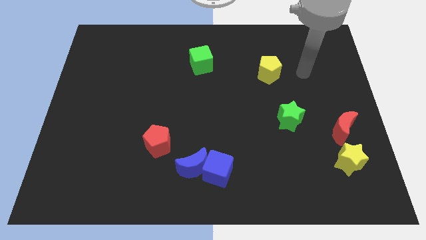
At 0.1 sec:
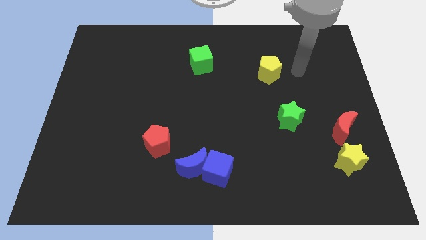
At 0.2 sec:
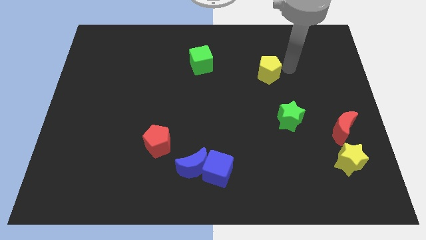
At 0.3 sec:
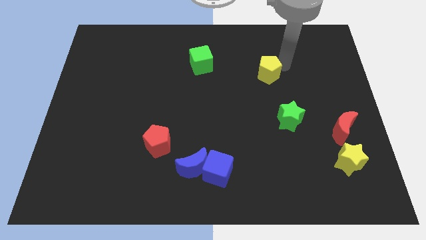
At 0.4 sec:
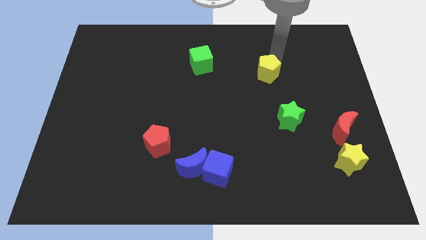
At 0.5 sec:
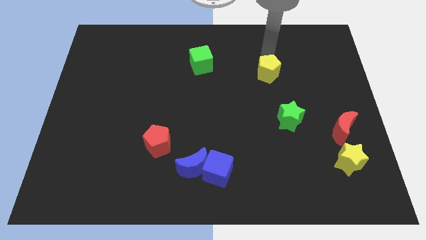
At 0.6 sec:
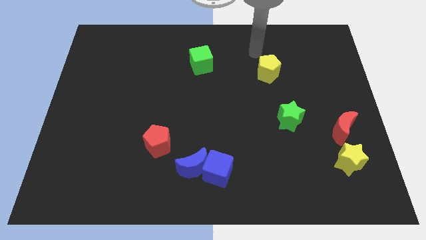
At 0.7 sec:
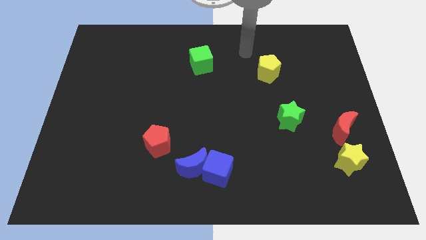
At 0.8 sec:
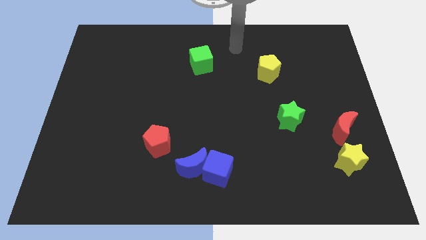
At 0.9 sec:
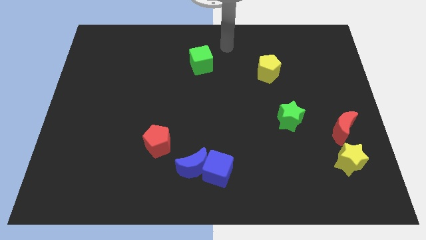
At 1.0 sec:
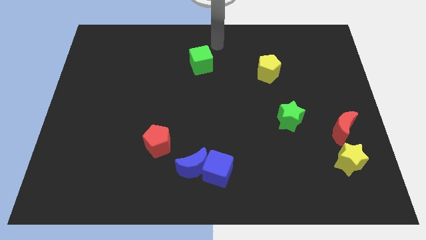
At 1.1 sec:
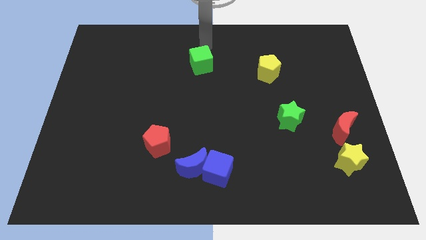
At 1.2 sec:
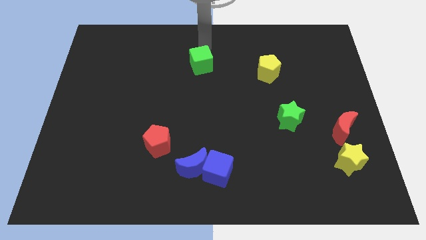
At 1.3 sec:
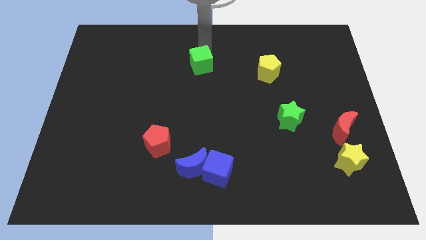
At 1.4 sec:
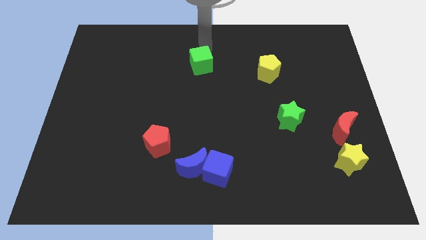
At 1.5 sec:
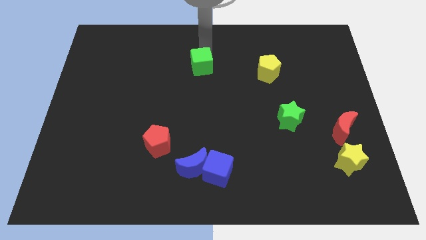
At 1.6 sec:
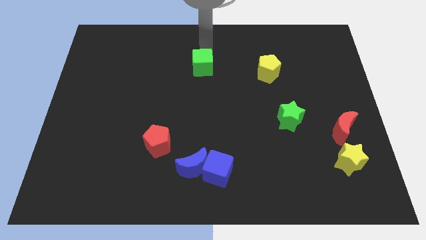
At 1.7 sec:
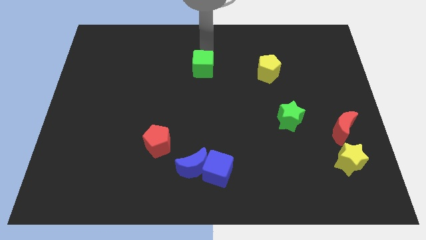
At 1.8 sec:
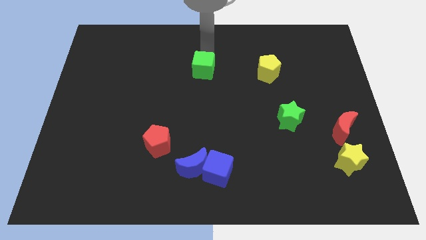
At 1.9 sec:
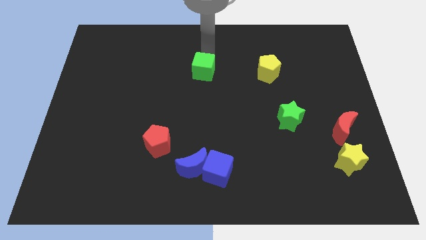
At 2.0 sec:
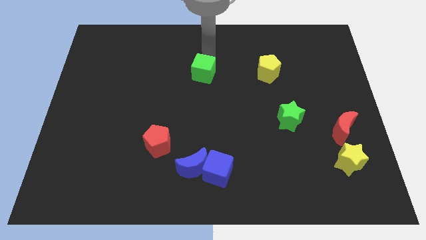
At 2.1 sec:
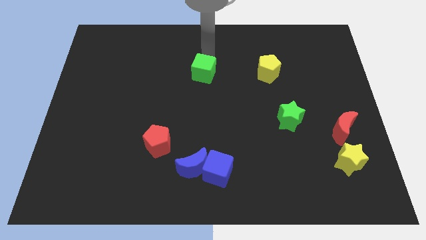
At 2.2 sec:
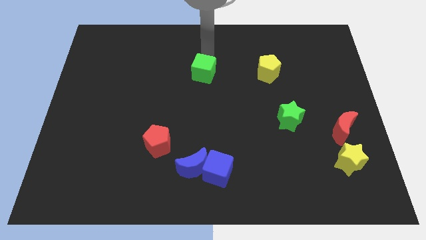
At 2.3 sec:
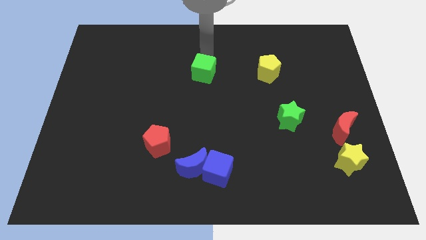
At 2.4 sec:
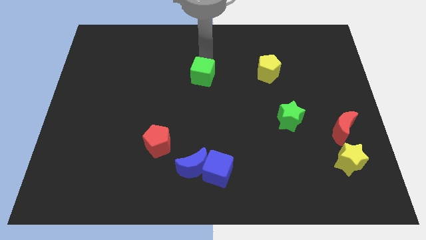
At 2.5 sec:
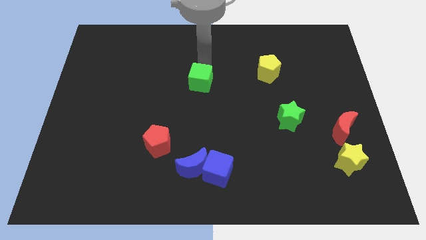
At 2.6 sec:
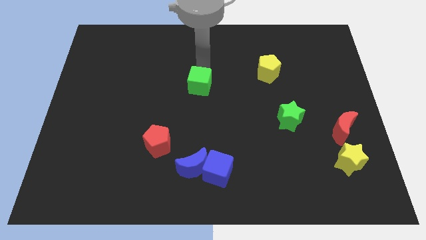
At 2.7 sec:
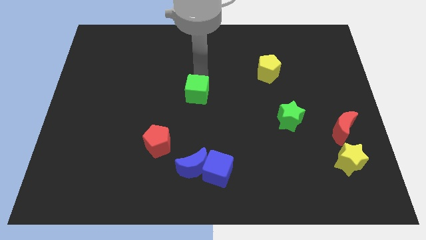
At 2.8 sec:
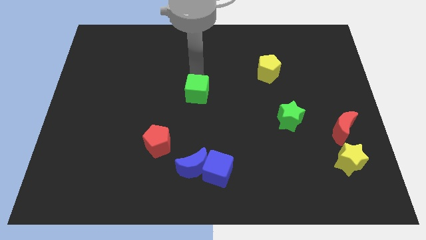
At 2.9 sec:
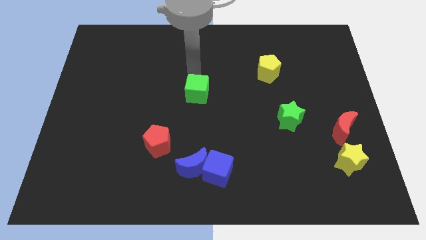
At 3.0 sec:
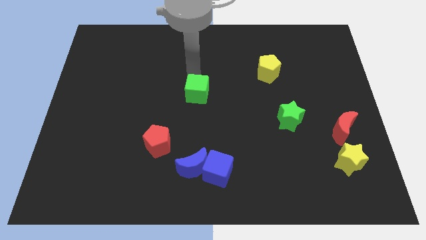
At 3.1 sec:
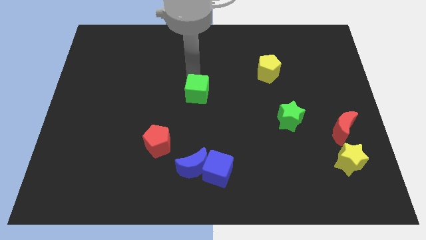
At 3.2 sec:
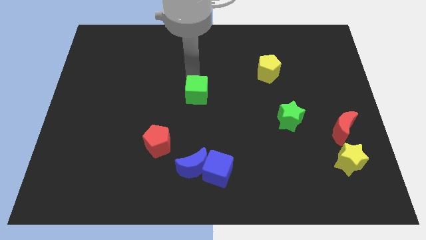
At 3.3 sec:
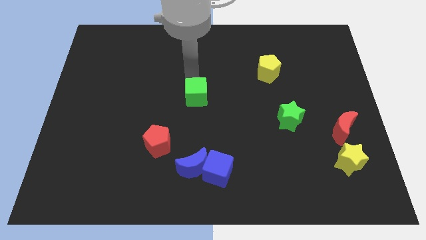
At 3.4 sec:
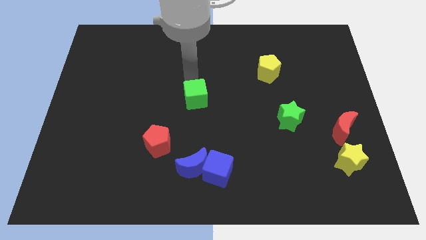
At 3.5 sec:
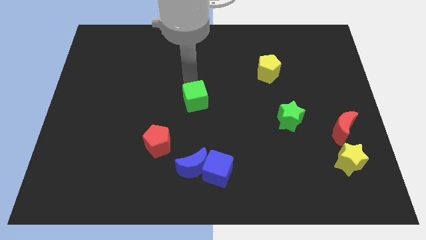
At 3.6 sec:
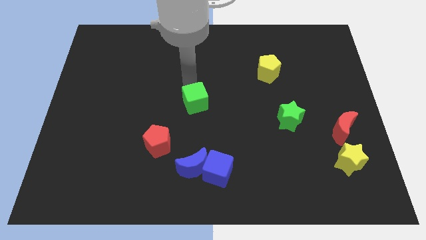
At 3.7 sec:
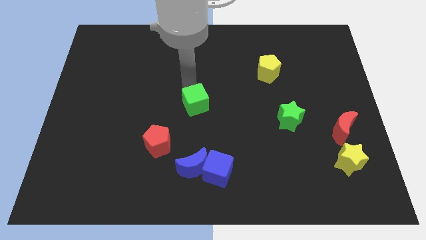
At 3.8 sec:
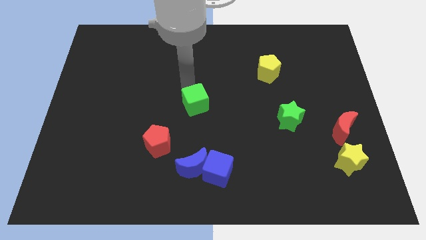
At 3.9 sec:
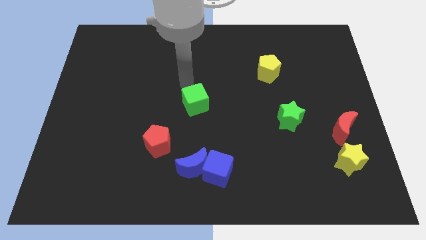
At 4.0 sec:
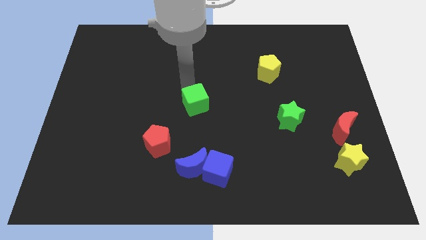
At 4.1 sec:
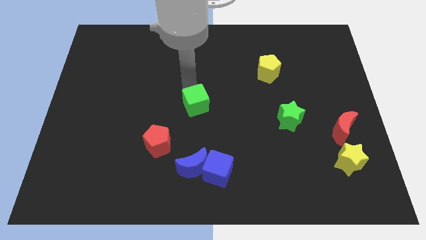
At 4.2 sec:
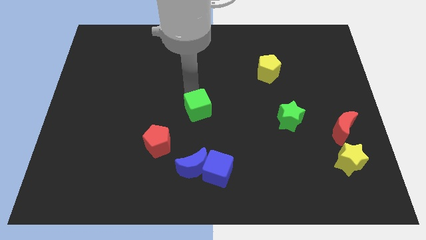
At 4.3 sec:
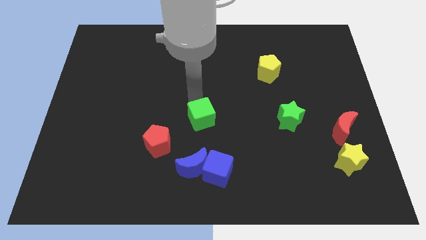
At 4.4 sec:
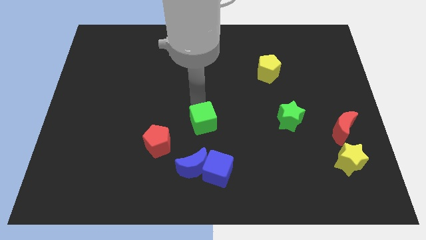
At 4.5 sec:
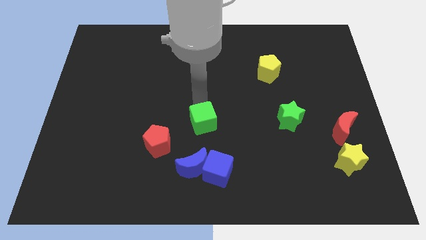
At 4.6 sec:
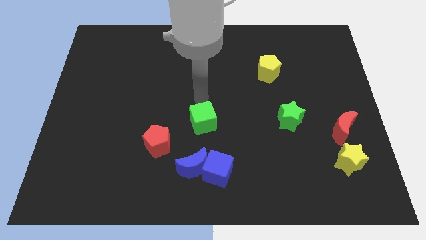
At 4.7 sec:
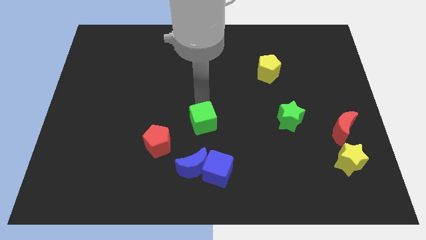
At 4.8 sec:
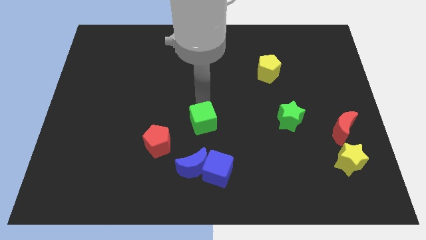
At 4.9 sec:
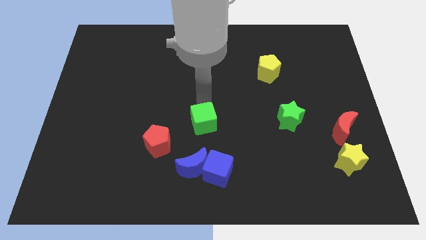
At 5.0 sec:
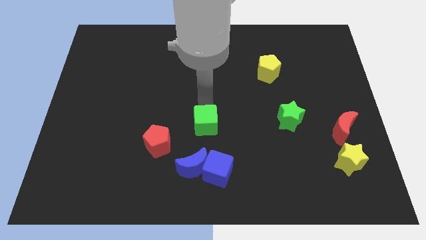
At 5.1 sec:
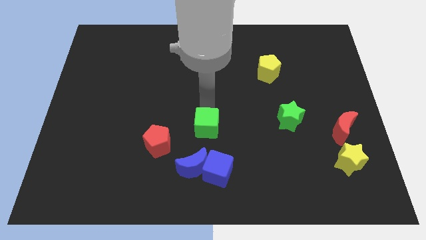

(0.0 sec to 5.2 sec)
push the green cube to the right of the red pentagon

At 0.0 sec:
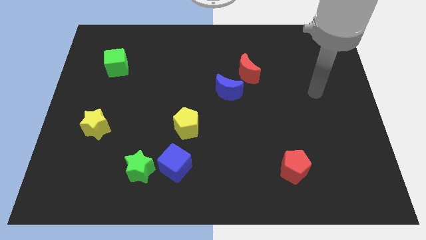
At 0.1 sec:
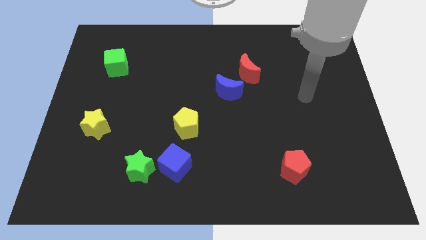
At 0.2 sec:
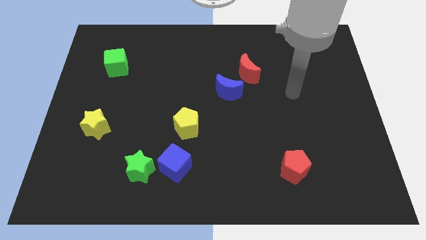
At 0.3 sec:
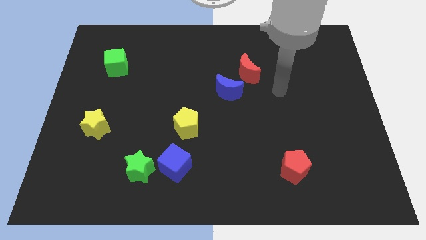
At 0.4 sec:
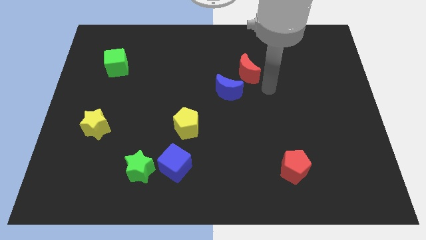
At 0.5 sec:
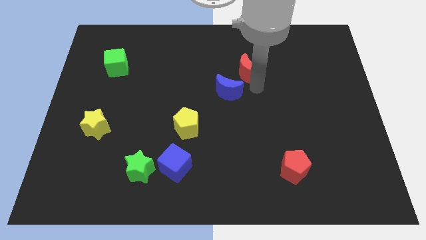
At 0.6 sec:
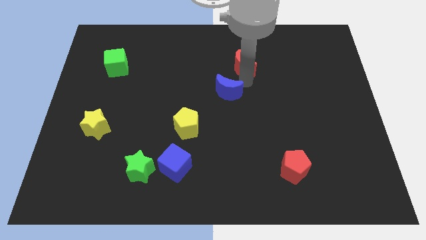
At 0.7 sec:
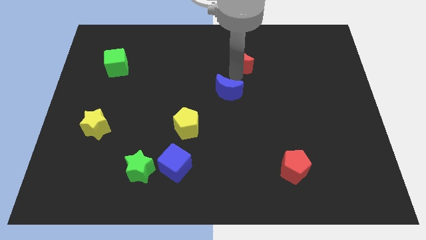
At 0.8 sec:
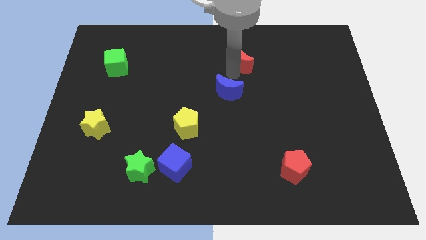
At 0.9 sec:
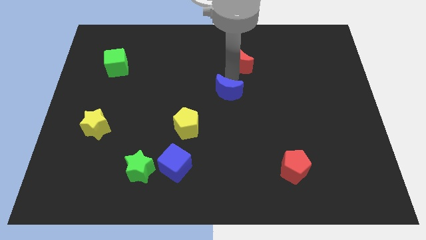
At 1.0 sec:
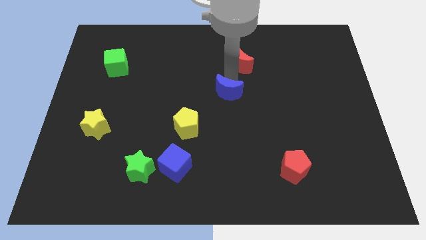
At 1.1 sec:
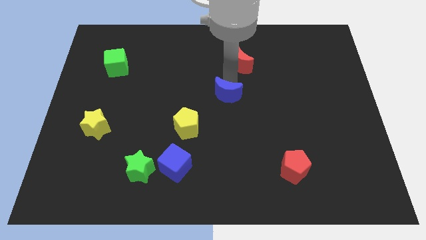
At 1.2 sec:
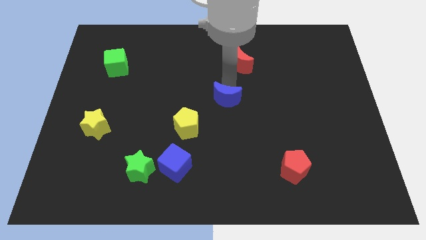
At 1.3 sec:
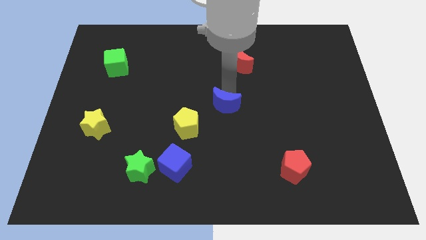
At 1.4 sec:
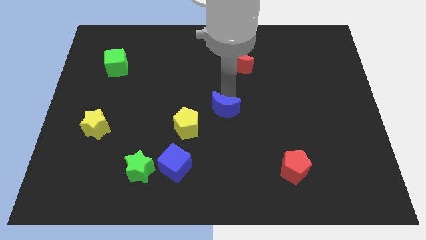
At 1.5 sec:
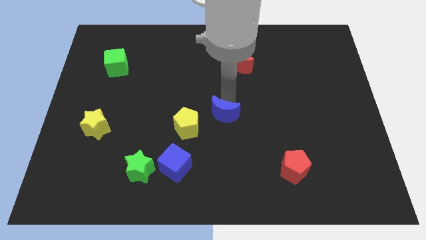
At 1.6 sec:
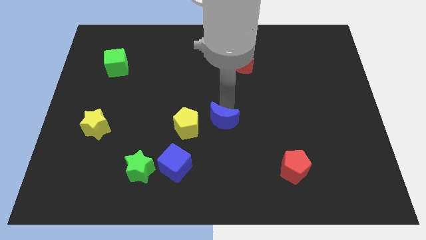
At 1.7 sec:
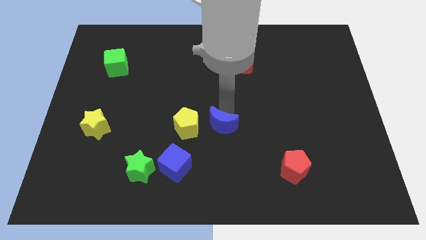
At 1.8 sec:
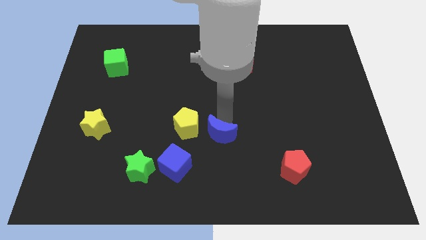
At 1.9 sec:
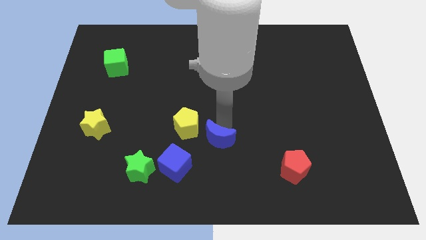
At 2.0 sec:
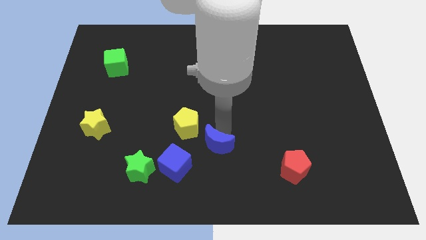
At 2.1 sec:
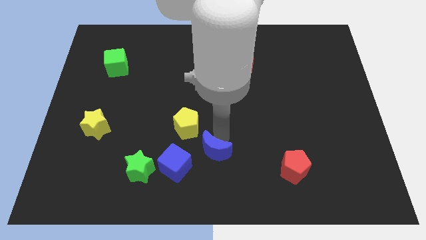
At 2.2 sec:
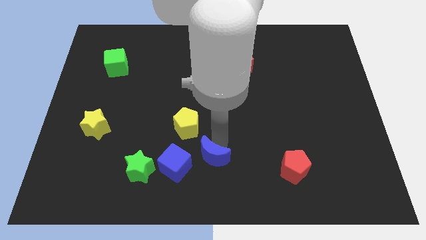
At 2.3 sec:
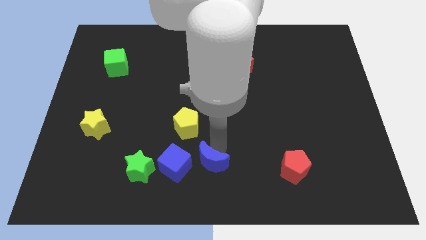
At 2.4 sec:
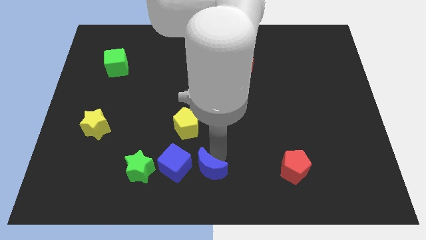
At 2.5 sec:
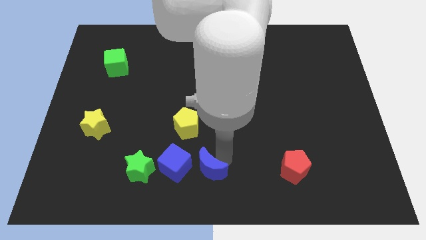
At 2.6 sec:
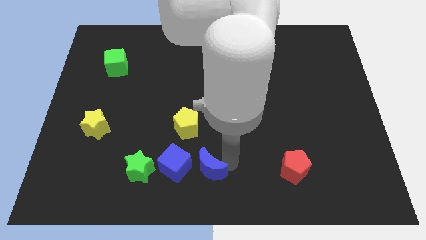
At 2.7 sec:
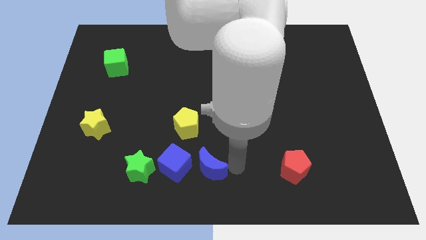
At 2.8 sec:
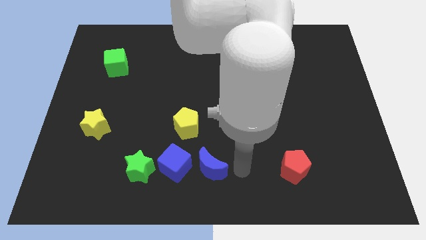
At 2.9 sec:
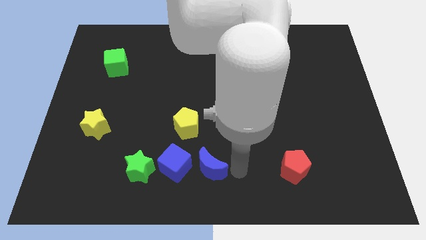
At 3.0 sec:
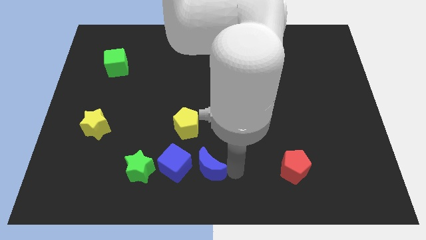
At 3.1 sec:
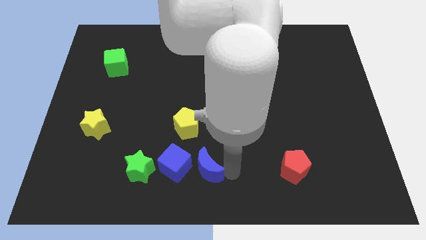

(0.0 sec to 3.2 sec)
push the blue moon to the bottom side of the yellow pentagon
